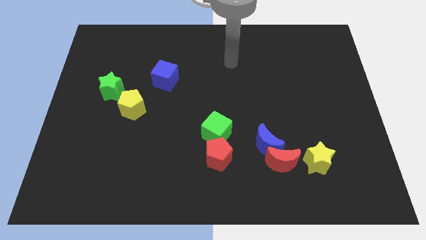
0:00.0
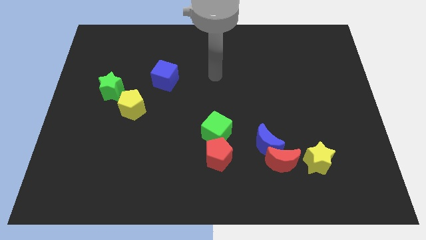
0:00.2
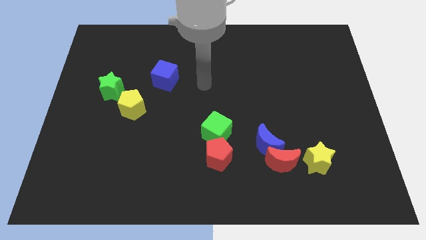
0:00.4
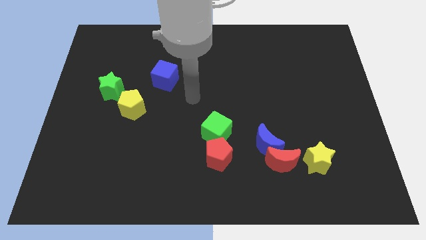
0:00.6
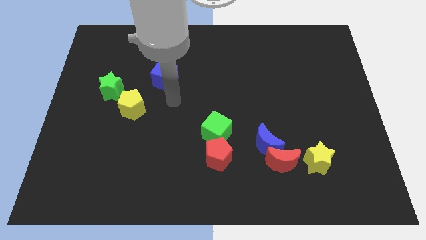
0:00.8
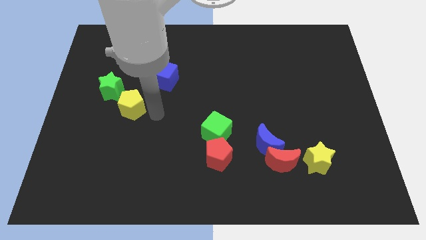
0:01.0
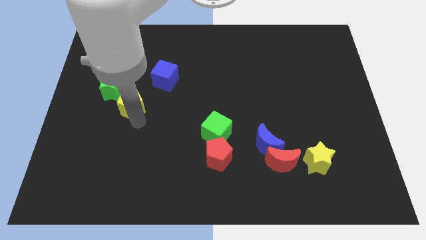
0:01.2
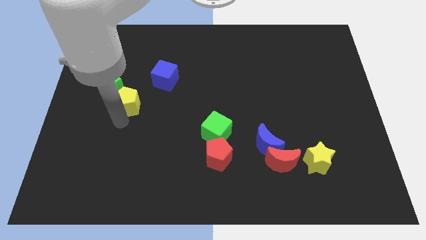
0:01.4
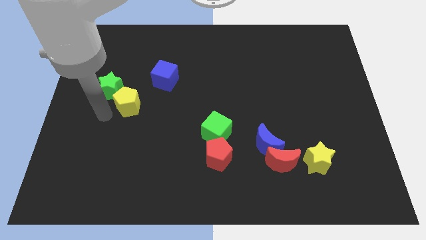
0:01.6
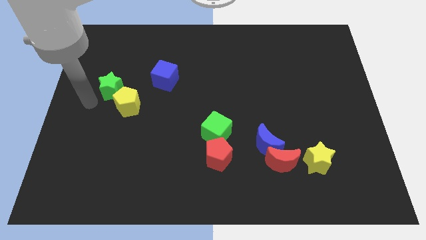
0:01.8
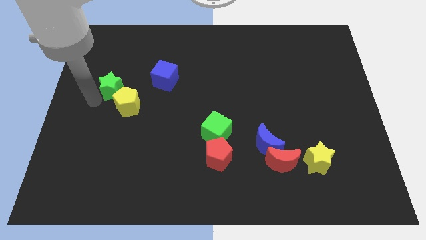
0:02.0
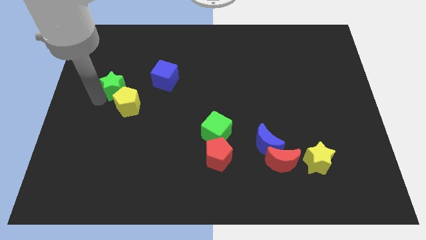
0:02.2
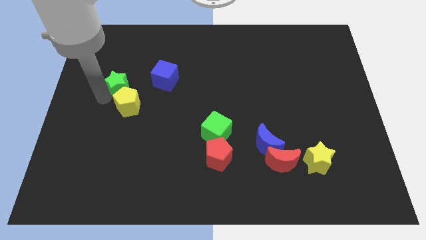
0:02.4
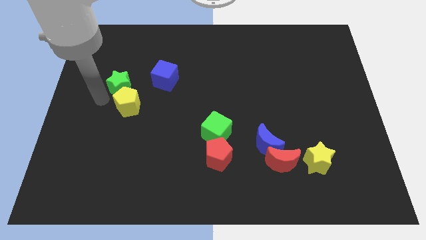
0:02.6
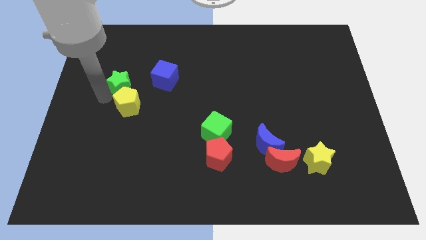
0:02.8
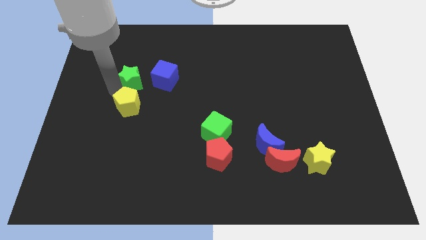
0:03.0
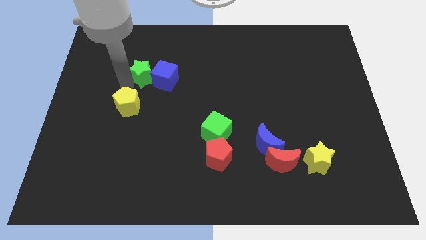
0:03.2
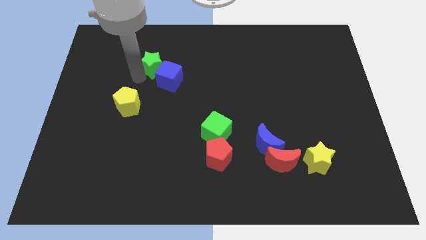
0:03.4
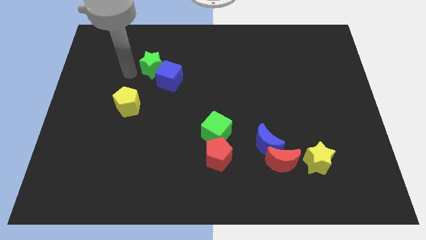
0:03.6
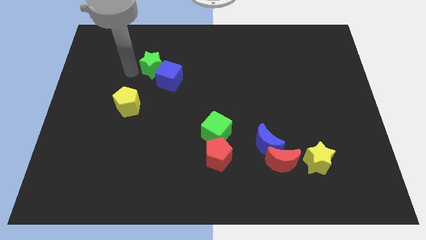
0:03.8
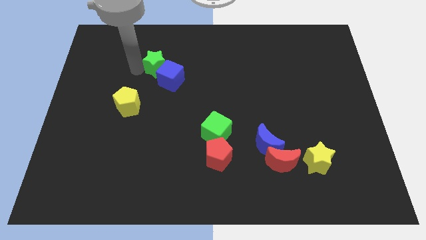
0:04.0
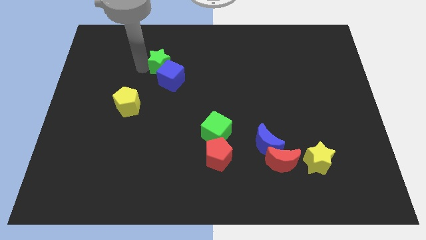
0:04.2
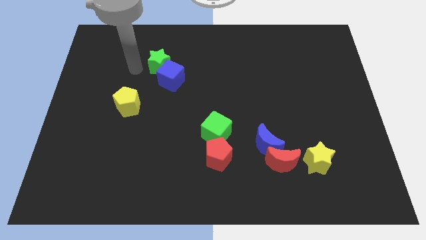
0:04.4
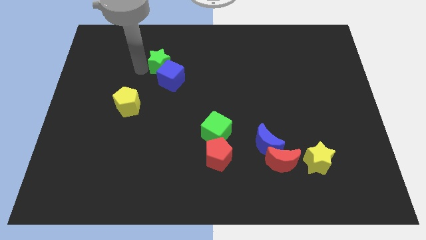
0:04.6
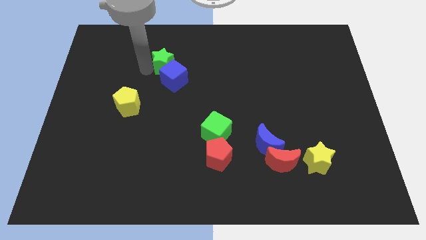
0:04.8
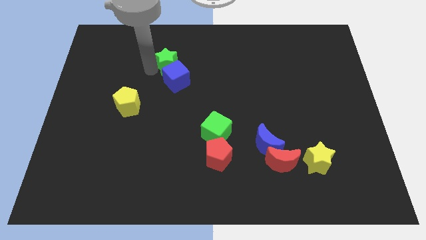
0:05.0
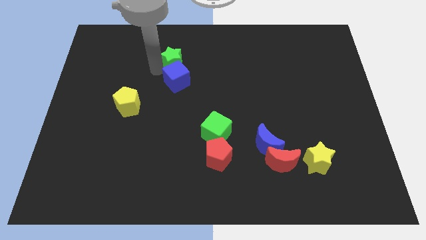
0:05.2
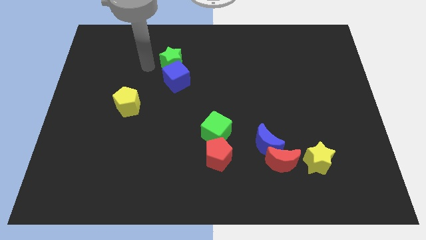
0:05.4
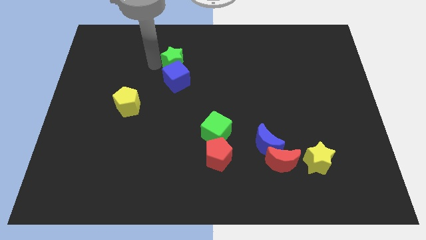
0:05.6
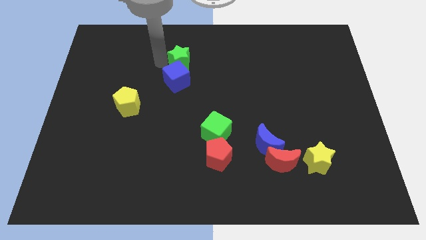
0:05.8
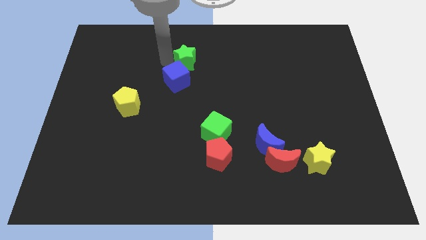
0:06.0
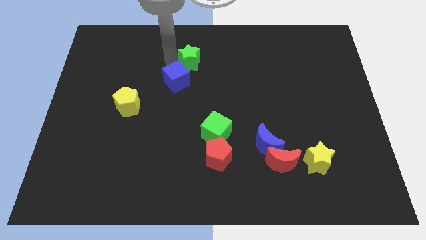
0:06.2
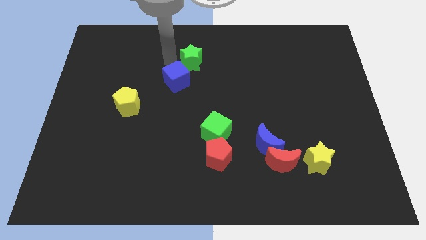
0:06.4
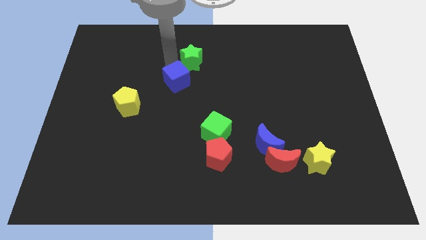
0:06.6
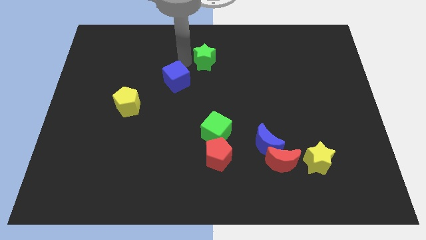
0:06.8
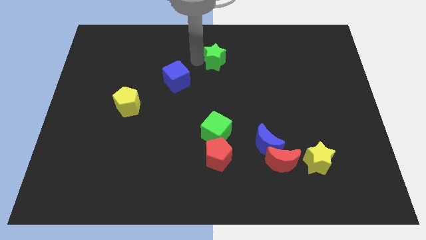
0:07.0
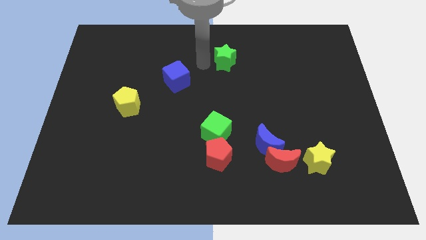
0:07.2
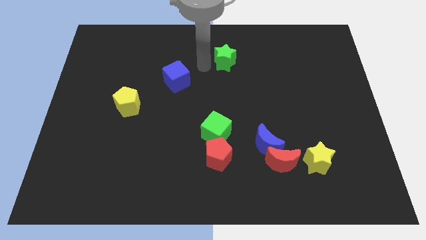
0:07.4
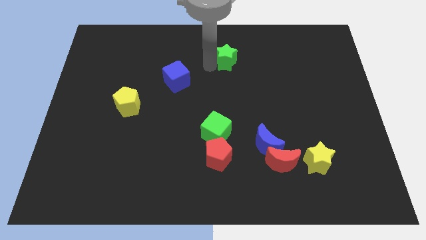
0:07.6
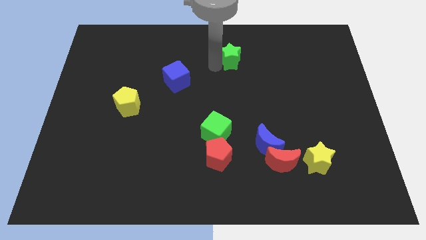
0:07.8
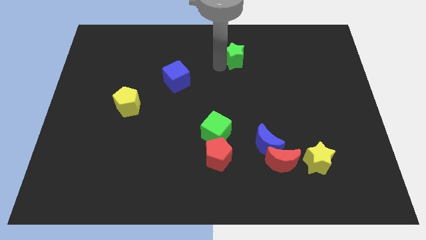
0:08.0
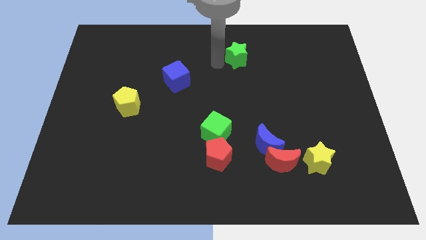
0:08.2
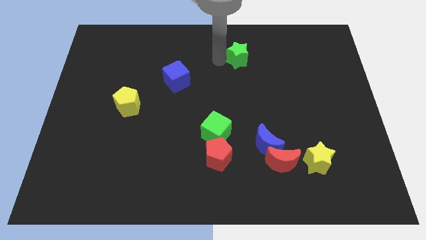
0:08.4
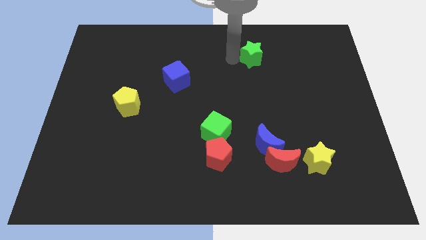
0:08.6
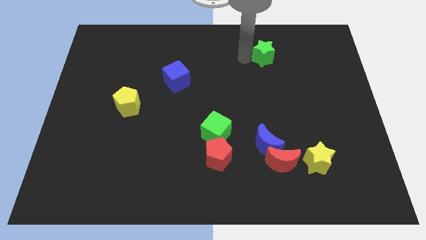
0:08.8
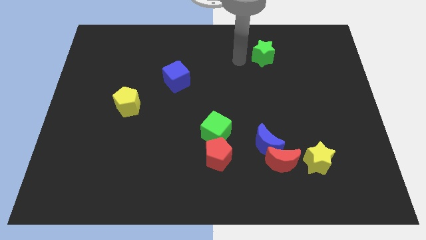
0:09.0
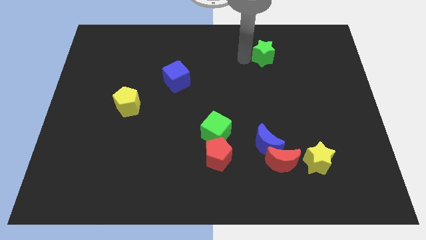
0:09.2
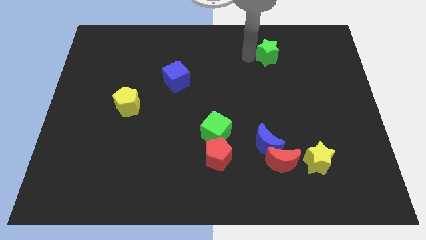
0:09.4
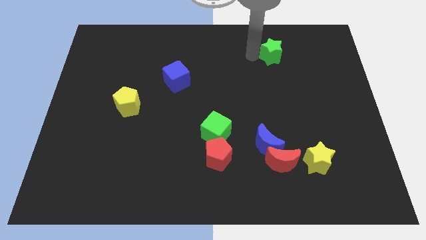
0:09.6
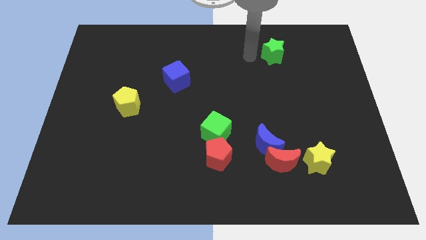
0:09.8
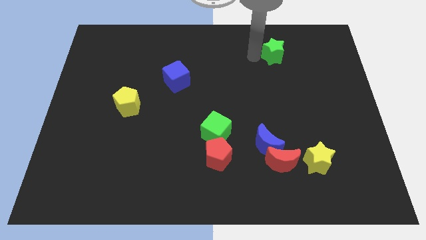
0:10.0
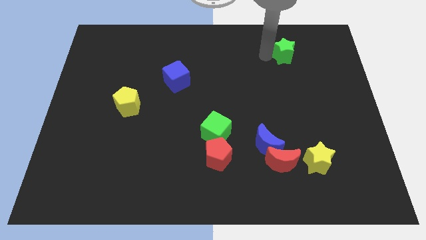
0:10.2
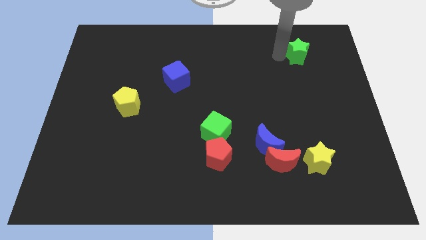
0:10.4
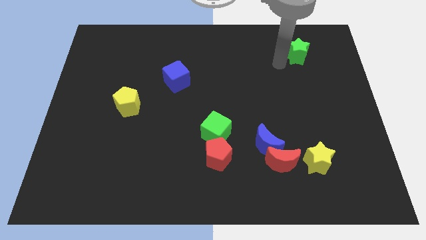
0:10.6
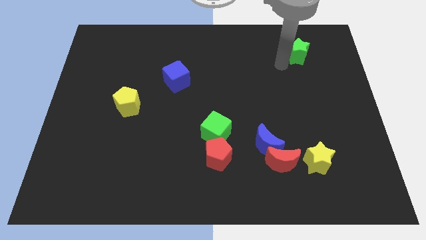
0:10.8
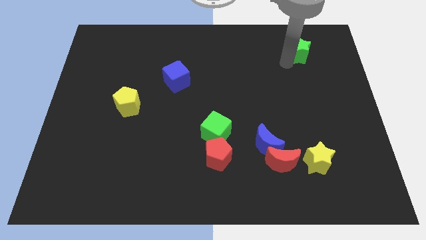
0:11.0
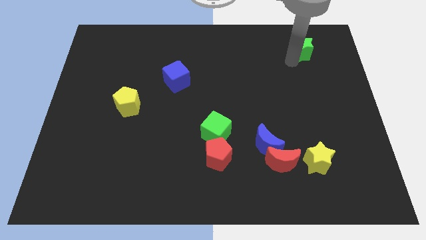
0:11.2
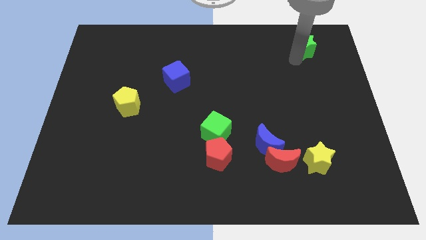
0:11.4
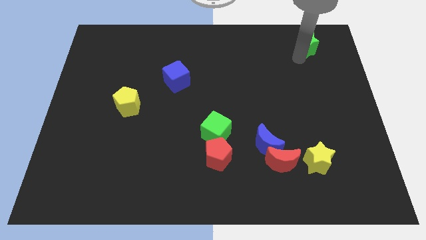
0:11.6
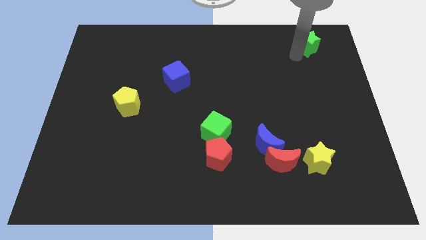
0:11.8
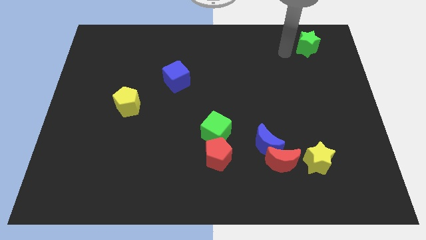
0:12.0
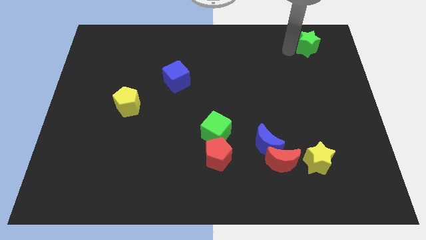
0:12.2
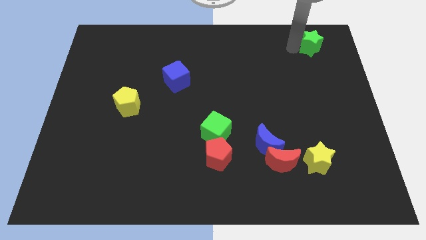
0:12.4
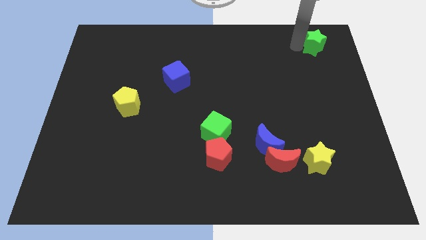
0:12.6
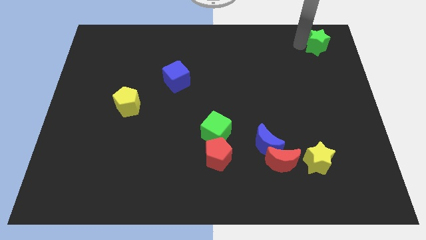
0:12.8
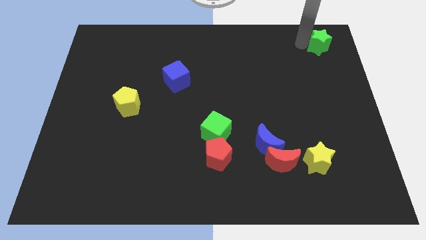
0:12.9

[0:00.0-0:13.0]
slide the green star to the top right corner
